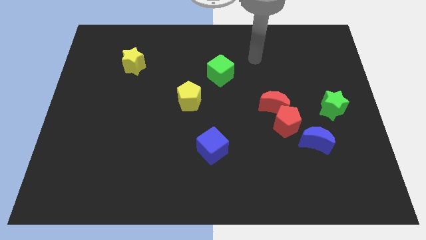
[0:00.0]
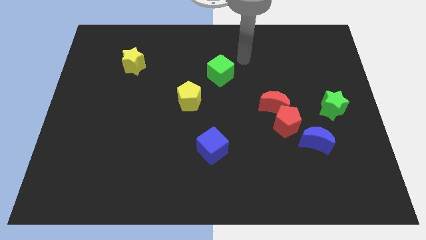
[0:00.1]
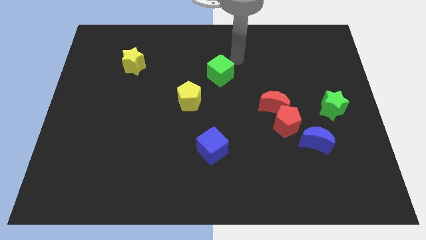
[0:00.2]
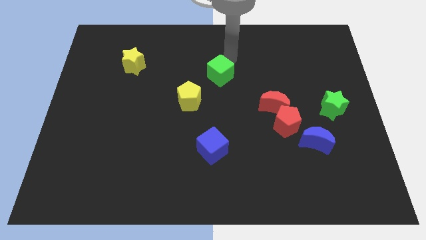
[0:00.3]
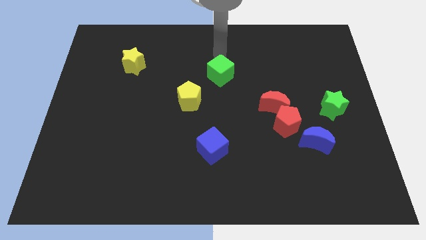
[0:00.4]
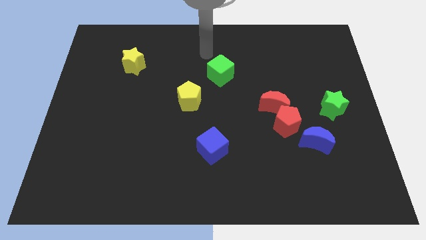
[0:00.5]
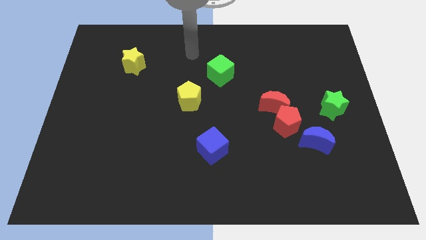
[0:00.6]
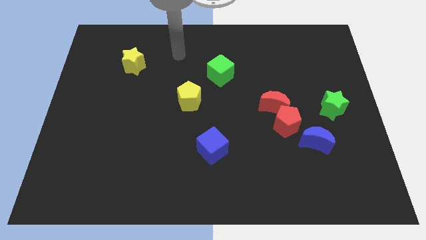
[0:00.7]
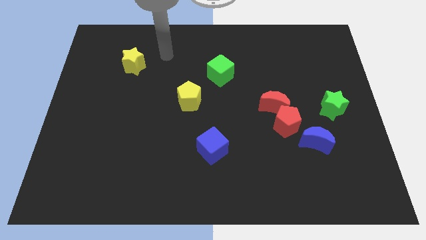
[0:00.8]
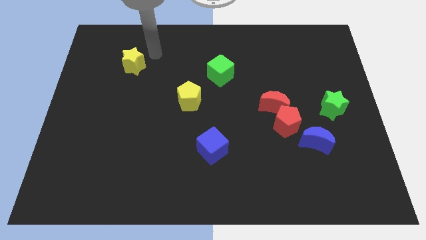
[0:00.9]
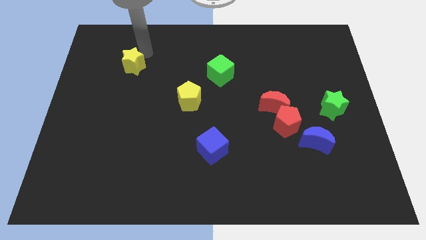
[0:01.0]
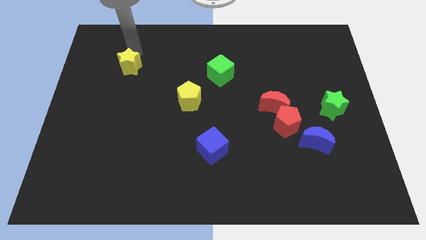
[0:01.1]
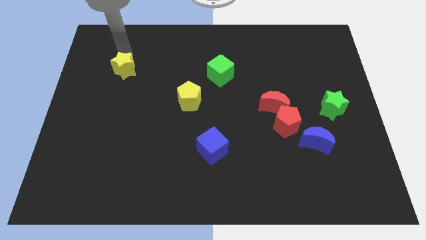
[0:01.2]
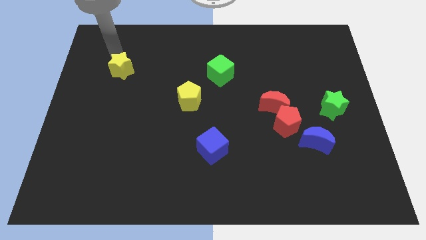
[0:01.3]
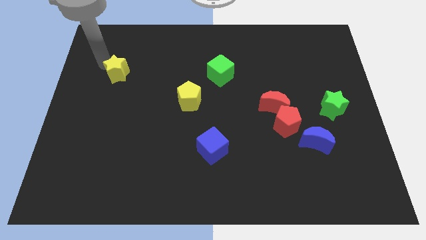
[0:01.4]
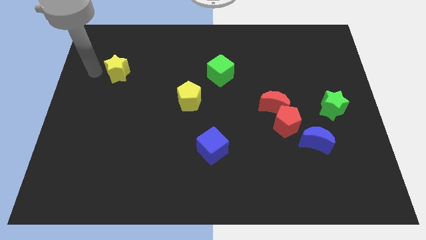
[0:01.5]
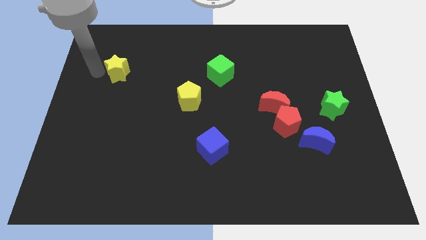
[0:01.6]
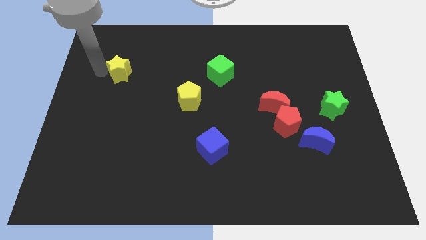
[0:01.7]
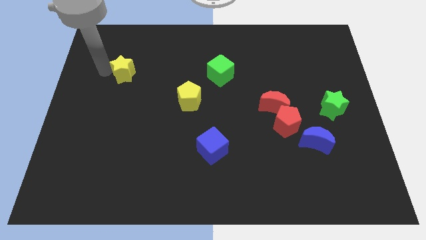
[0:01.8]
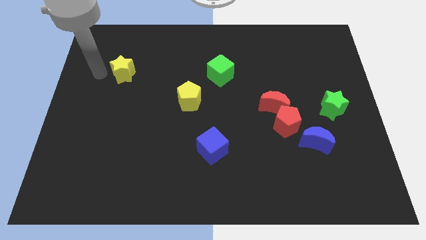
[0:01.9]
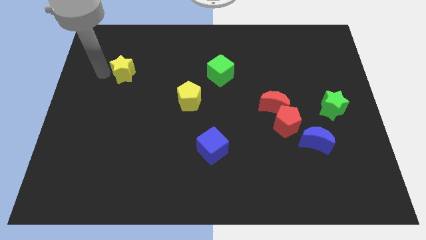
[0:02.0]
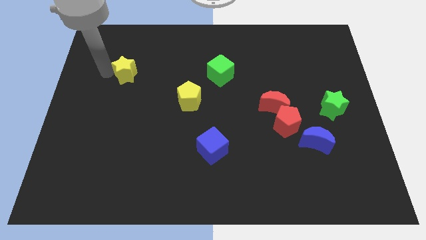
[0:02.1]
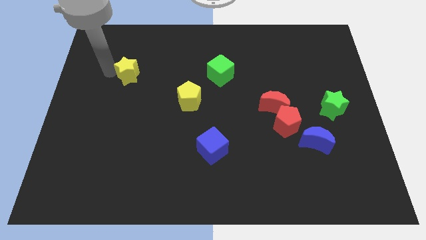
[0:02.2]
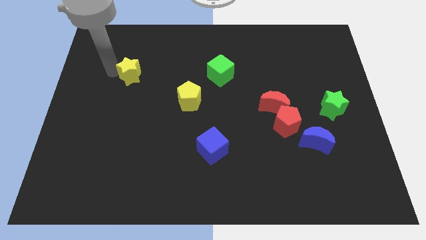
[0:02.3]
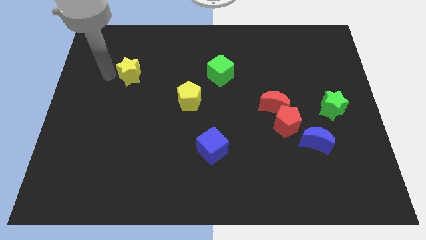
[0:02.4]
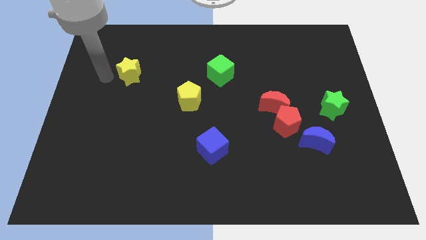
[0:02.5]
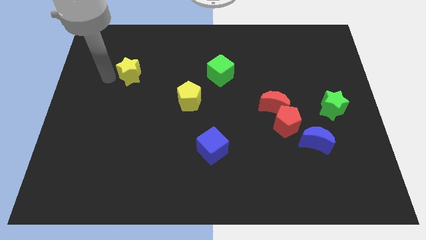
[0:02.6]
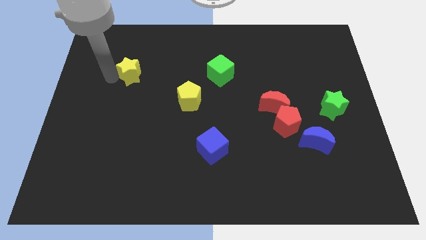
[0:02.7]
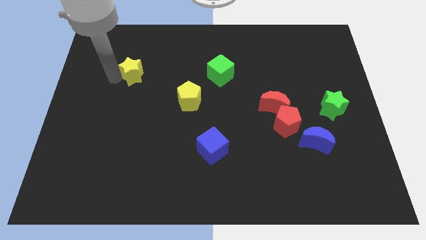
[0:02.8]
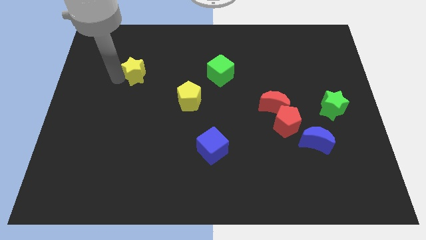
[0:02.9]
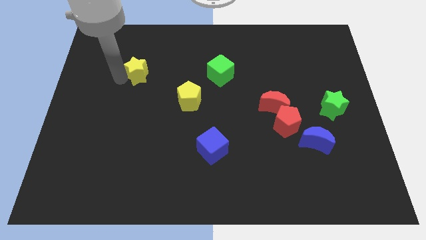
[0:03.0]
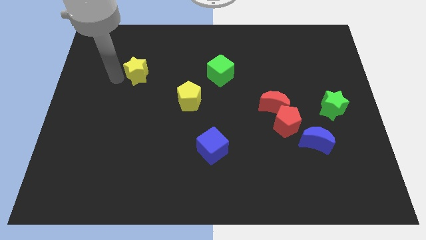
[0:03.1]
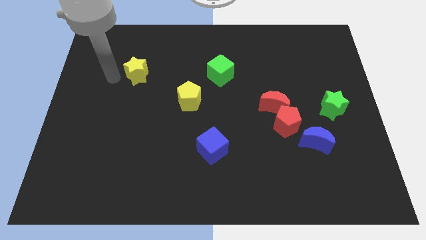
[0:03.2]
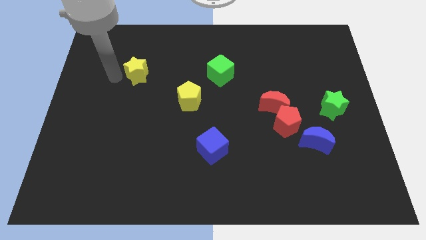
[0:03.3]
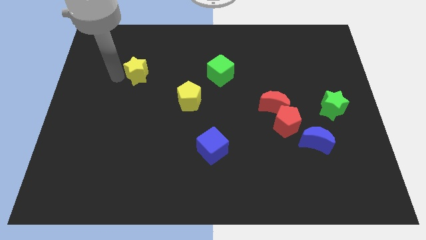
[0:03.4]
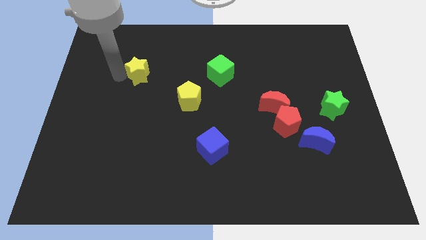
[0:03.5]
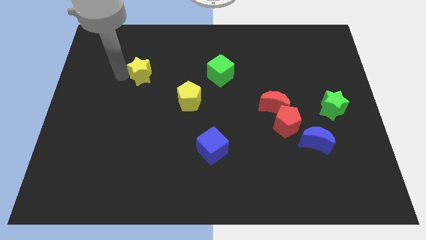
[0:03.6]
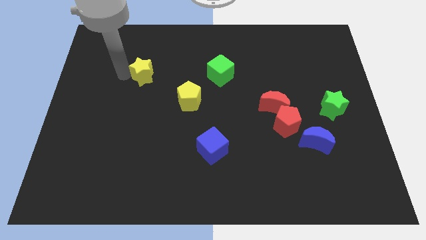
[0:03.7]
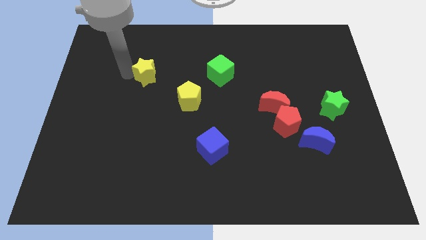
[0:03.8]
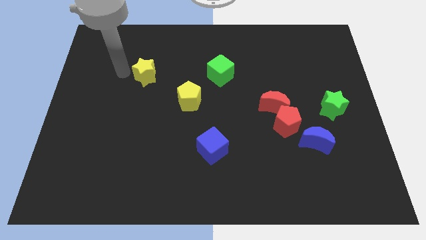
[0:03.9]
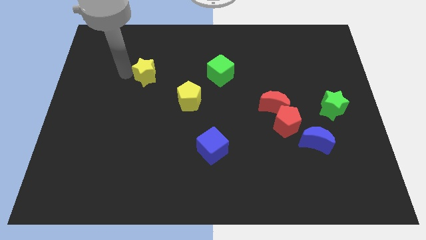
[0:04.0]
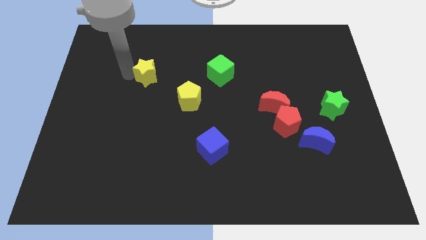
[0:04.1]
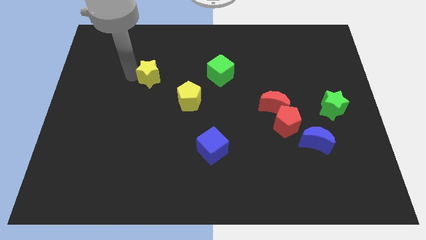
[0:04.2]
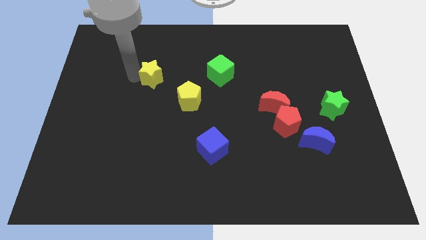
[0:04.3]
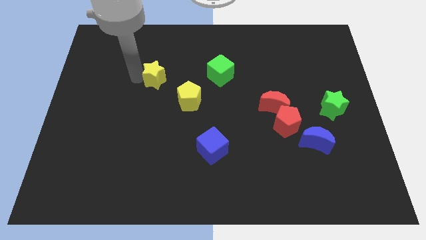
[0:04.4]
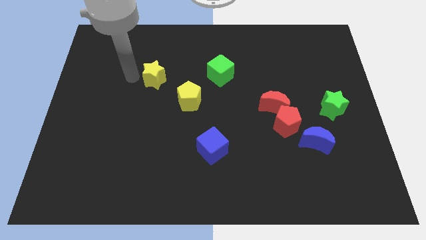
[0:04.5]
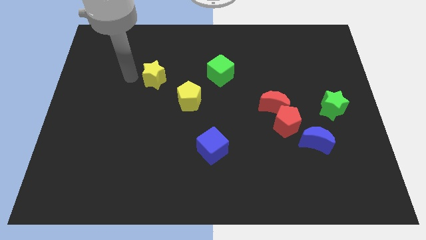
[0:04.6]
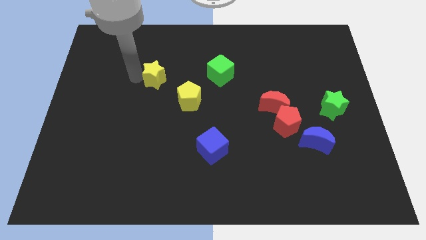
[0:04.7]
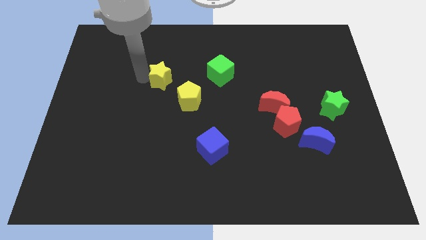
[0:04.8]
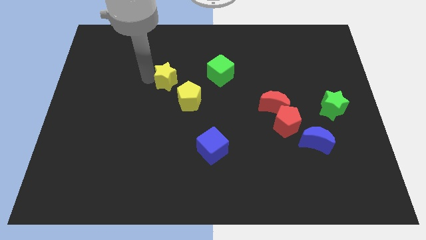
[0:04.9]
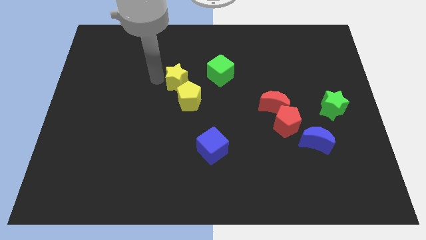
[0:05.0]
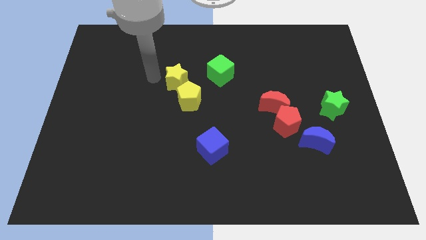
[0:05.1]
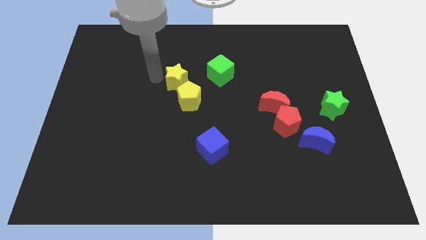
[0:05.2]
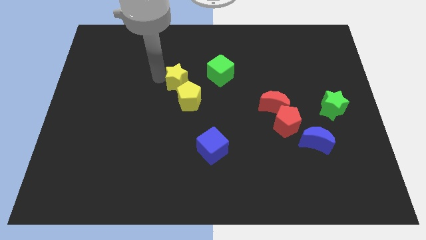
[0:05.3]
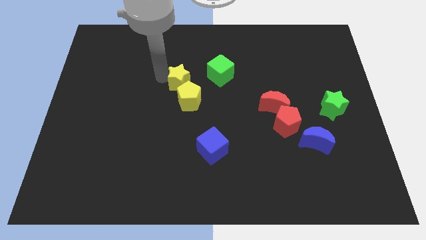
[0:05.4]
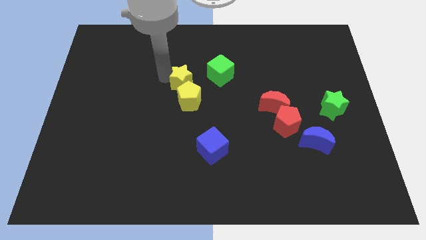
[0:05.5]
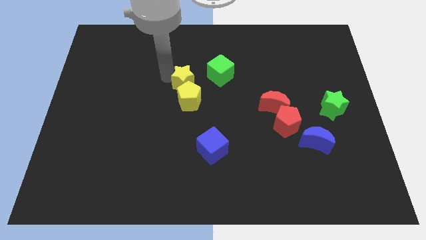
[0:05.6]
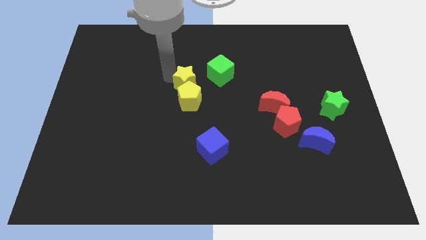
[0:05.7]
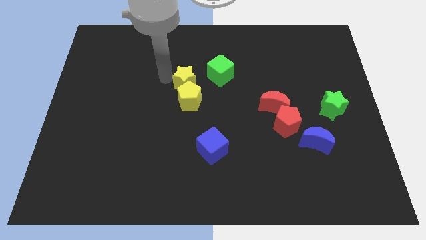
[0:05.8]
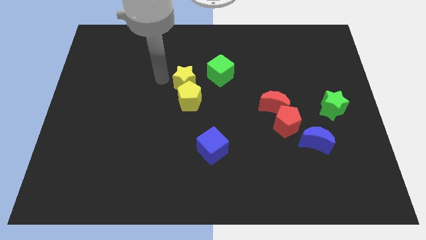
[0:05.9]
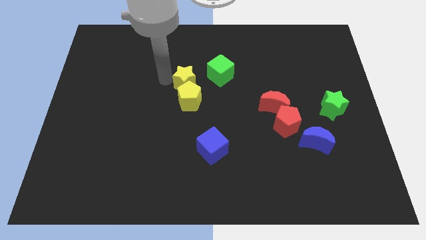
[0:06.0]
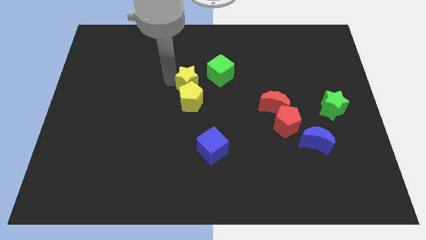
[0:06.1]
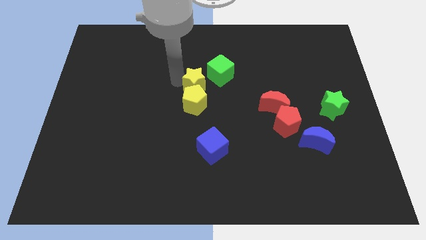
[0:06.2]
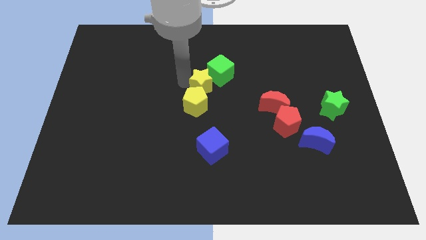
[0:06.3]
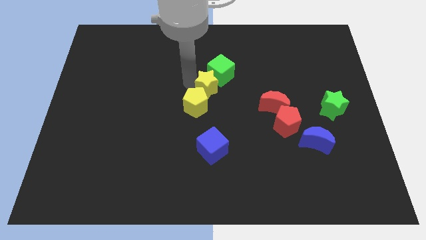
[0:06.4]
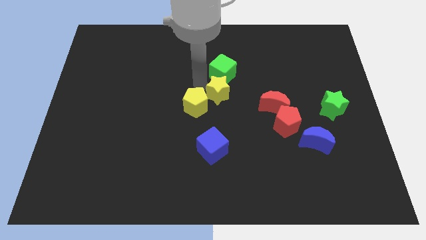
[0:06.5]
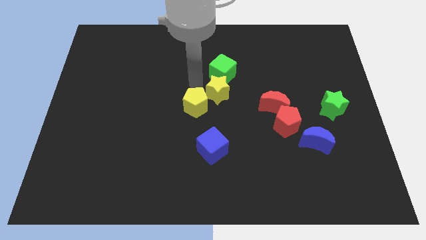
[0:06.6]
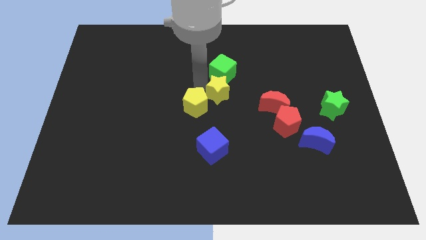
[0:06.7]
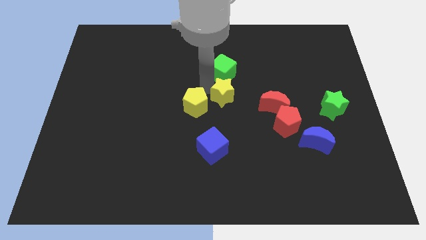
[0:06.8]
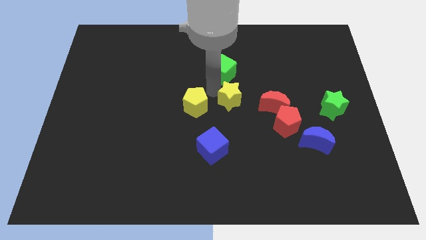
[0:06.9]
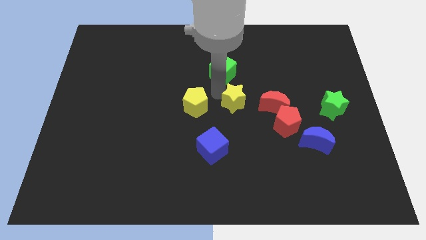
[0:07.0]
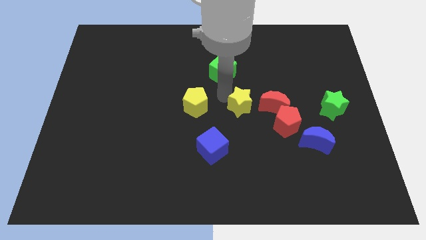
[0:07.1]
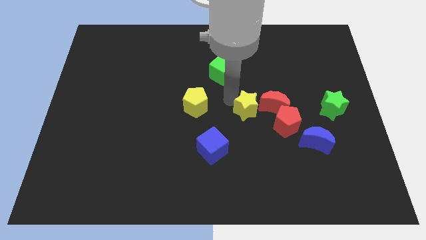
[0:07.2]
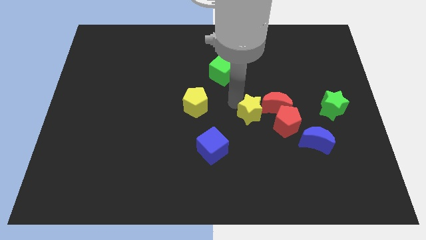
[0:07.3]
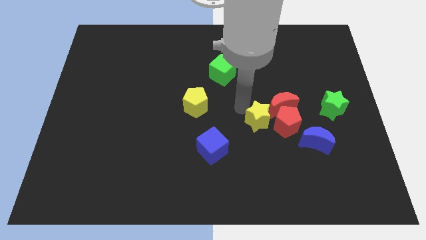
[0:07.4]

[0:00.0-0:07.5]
slide the yellow star close to the red pentagon
